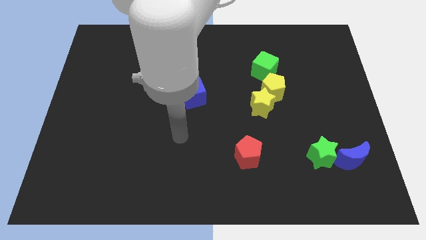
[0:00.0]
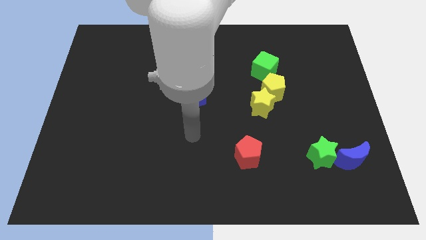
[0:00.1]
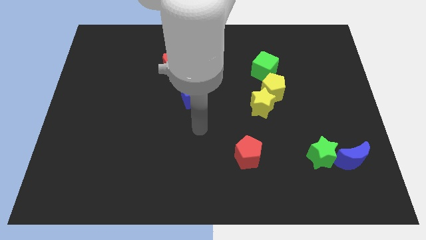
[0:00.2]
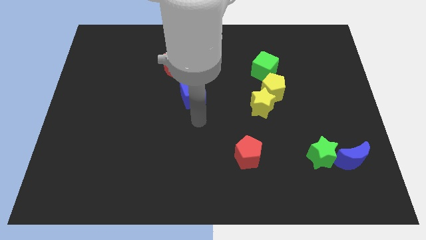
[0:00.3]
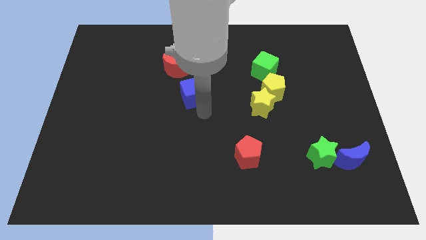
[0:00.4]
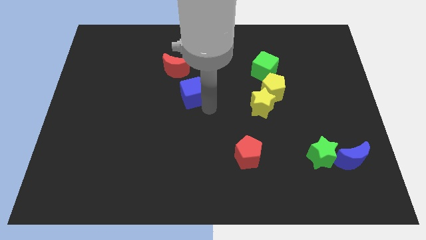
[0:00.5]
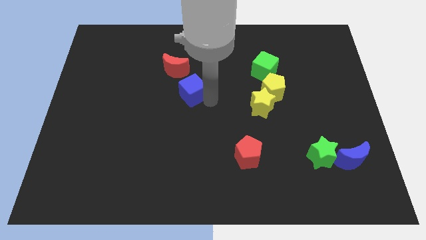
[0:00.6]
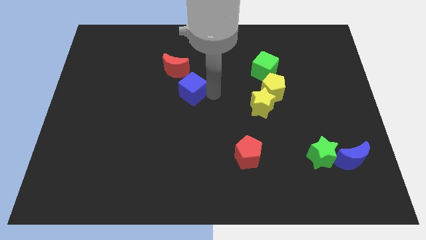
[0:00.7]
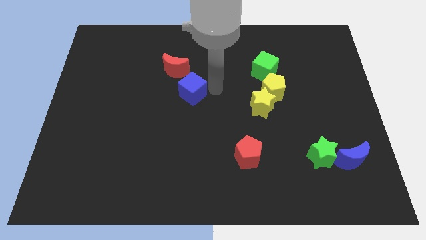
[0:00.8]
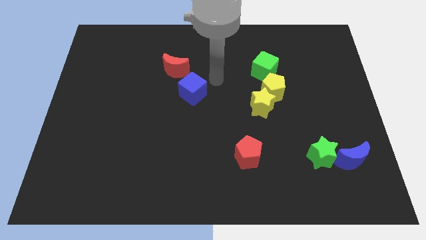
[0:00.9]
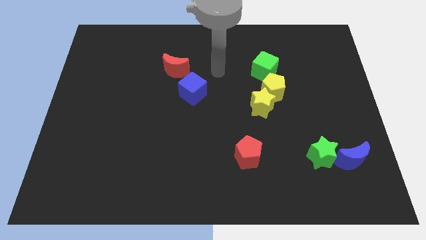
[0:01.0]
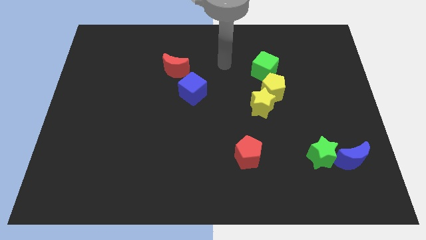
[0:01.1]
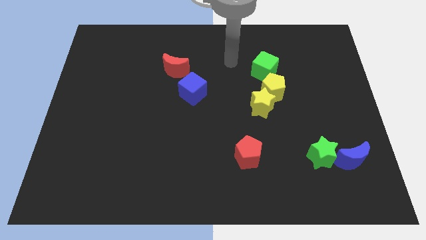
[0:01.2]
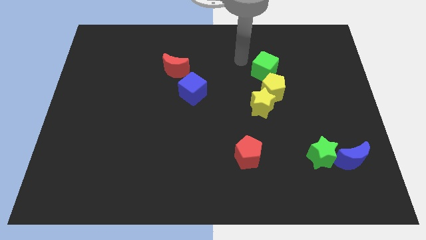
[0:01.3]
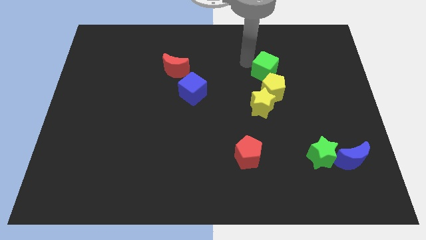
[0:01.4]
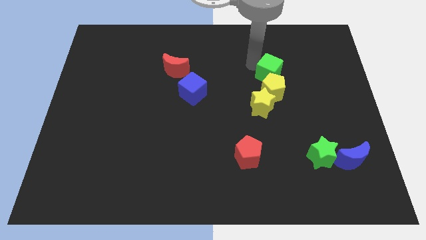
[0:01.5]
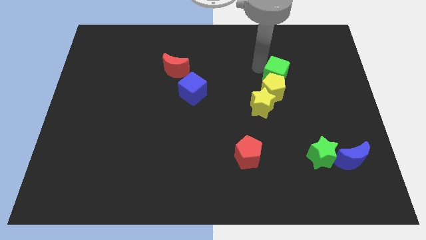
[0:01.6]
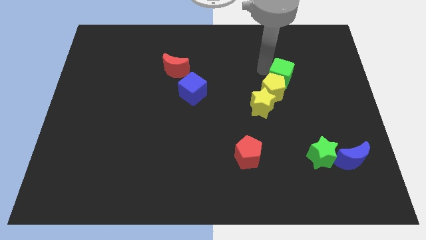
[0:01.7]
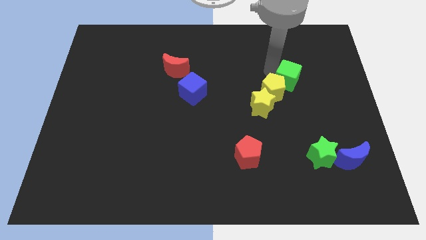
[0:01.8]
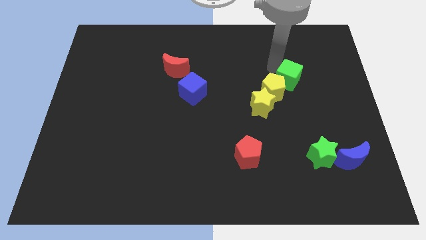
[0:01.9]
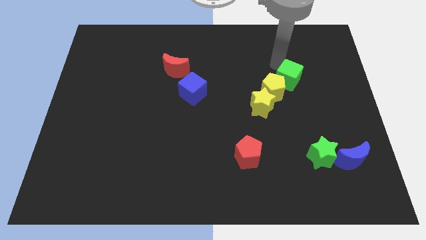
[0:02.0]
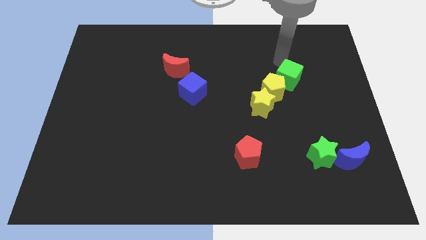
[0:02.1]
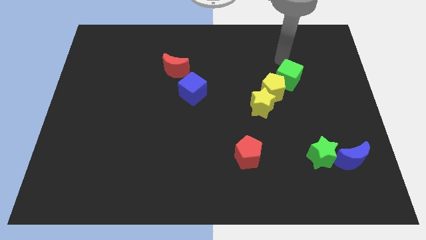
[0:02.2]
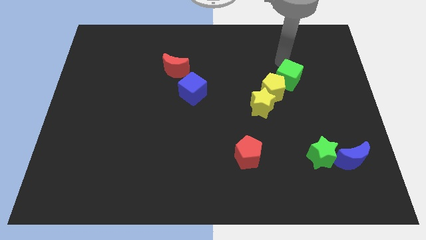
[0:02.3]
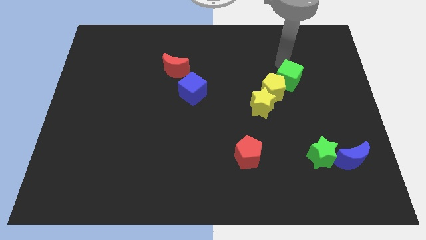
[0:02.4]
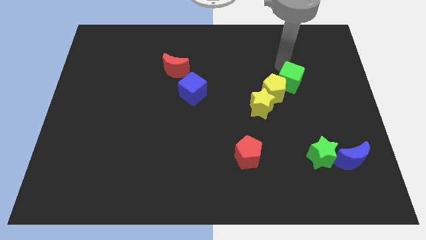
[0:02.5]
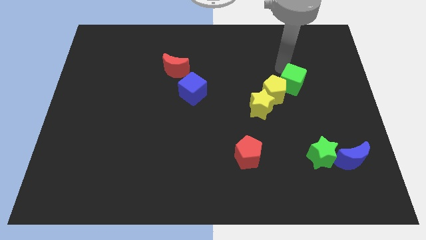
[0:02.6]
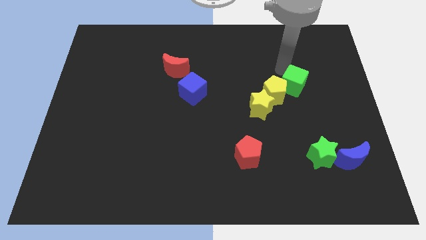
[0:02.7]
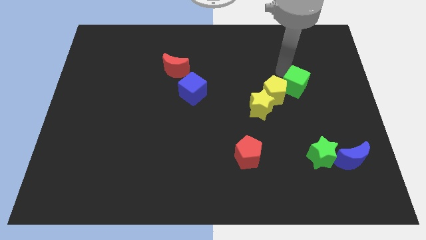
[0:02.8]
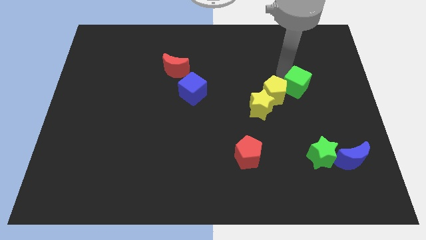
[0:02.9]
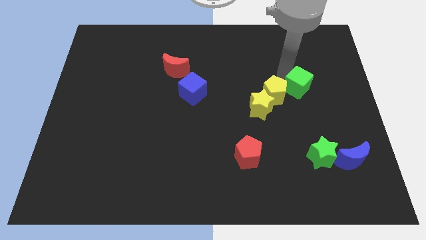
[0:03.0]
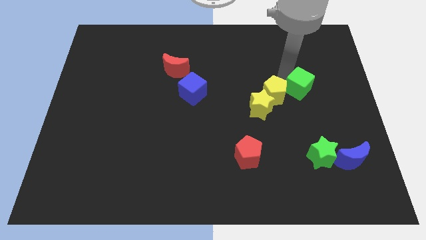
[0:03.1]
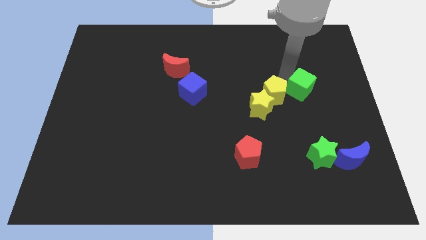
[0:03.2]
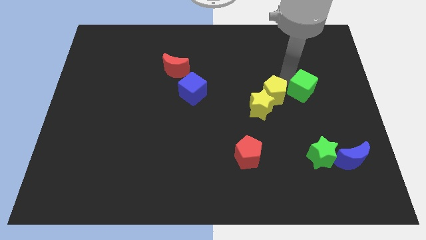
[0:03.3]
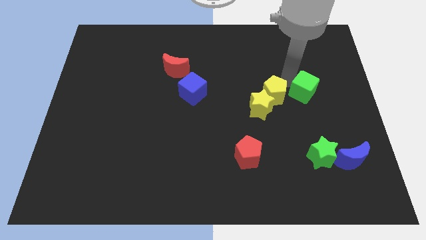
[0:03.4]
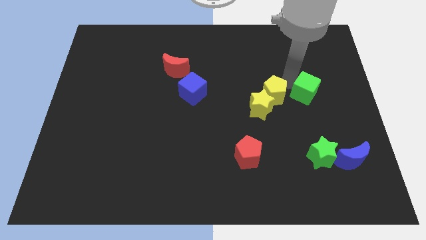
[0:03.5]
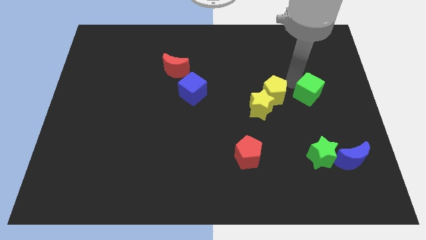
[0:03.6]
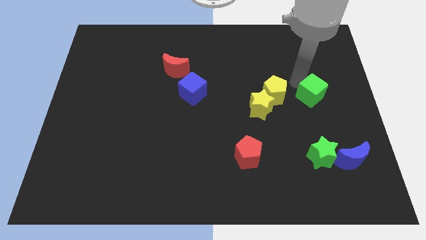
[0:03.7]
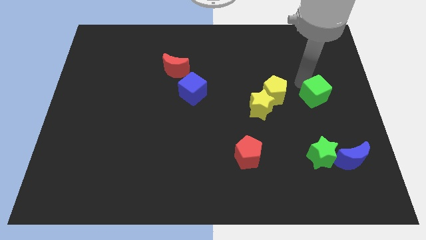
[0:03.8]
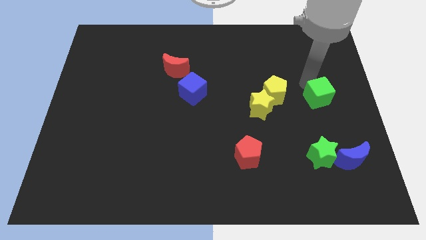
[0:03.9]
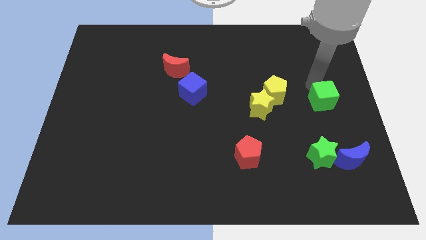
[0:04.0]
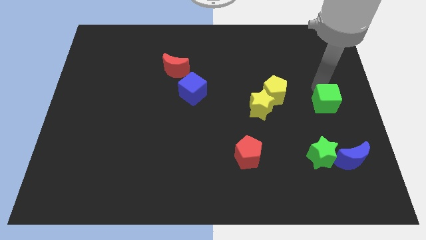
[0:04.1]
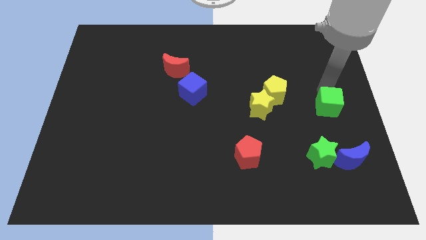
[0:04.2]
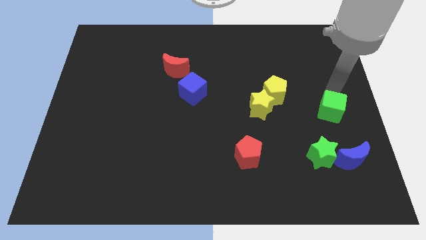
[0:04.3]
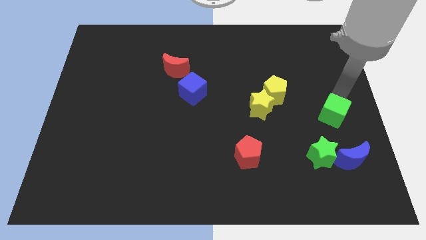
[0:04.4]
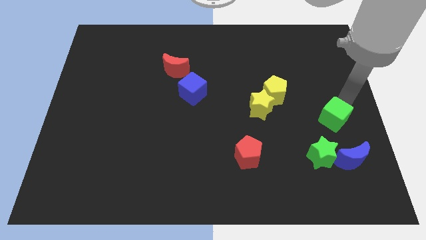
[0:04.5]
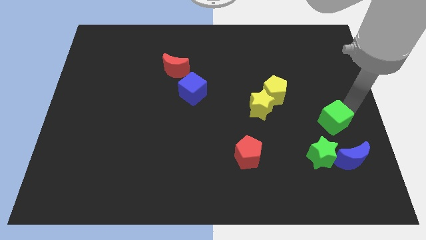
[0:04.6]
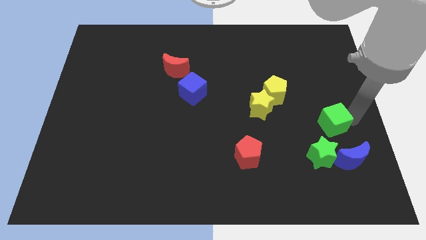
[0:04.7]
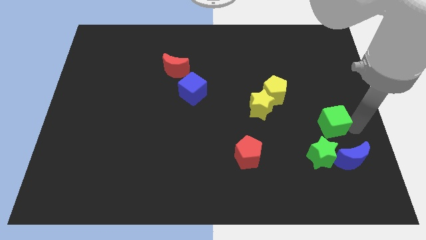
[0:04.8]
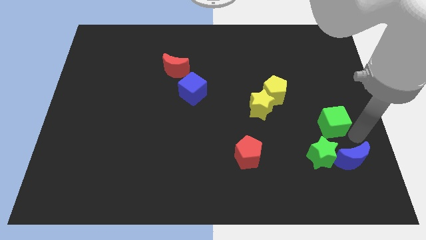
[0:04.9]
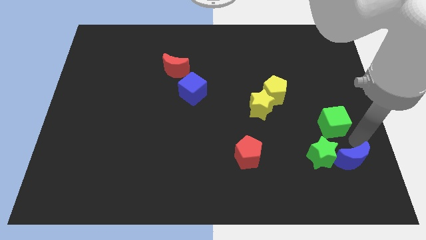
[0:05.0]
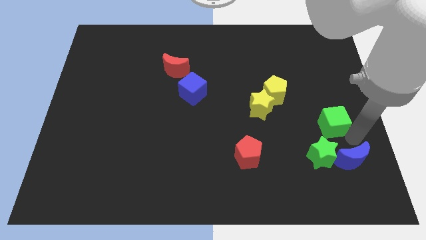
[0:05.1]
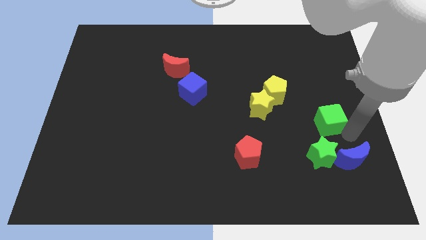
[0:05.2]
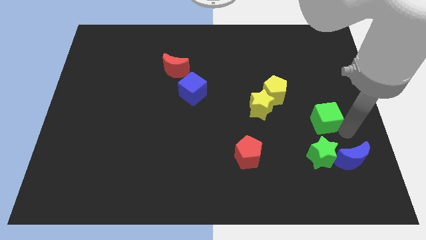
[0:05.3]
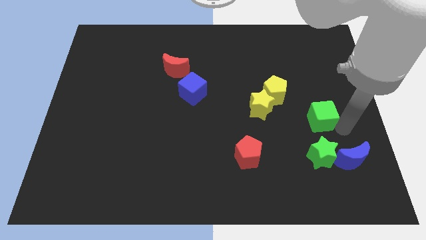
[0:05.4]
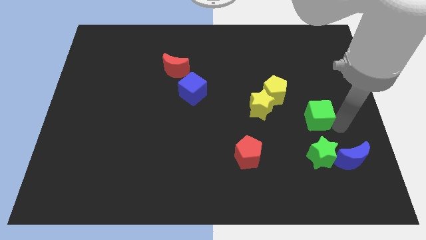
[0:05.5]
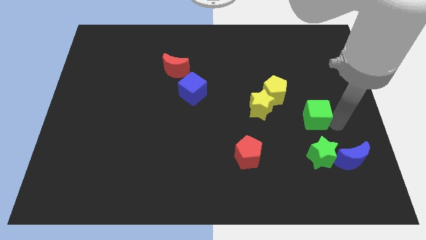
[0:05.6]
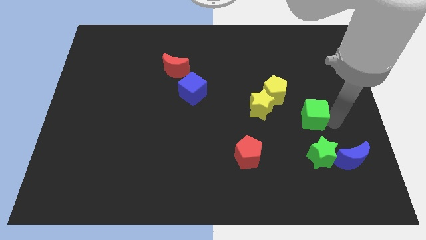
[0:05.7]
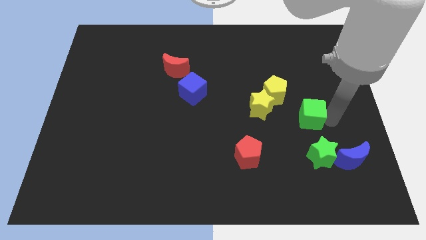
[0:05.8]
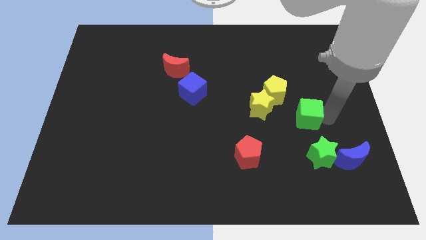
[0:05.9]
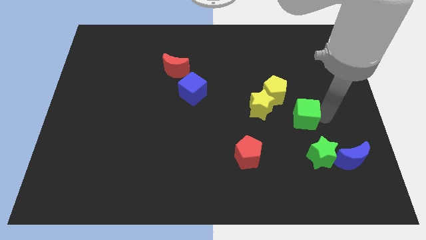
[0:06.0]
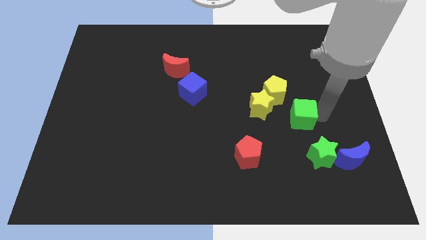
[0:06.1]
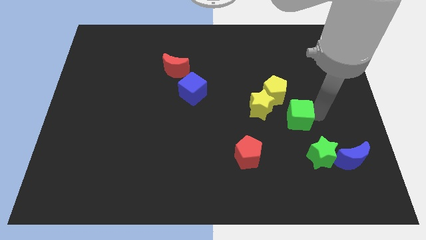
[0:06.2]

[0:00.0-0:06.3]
push the green cube to the bottom side of the yellow pentagon
